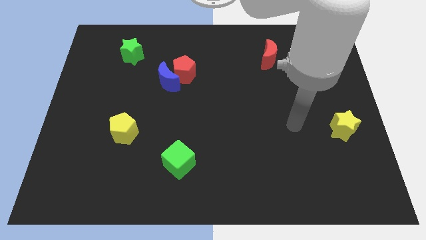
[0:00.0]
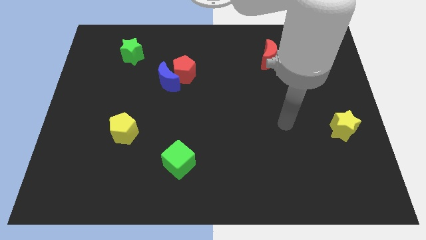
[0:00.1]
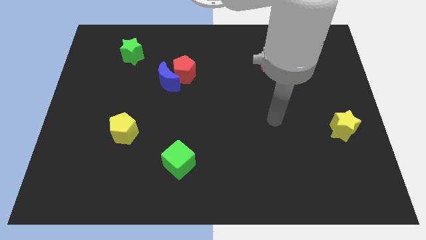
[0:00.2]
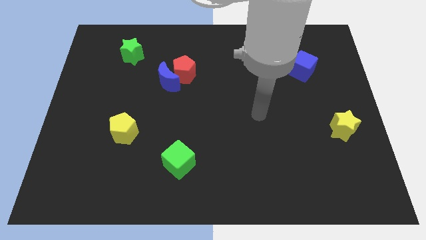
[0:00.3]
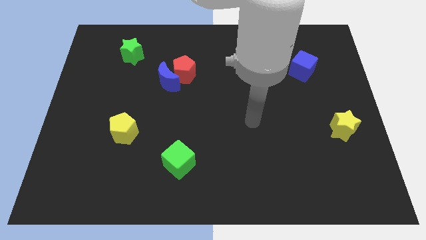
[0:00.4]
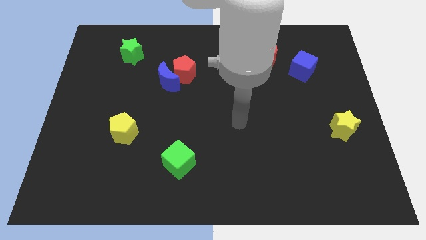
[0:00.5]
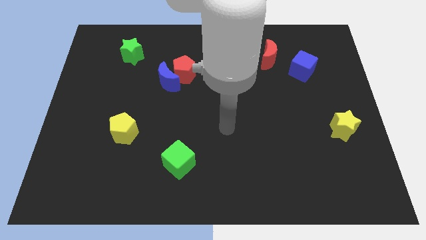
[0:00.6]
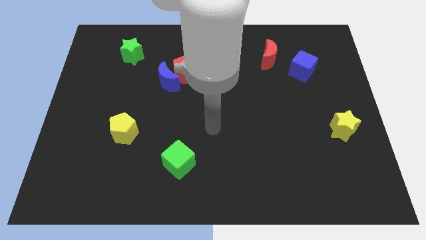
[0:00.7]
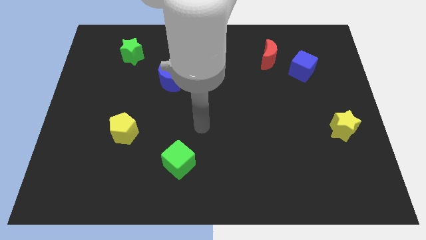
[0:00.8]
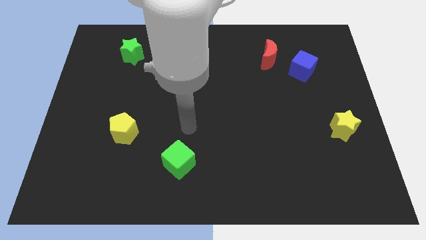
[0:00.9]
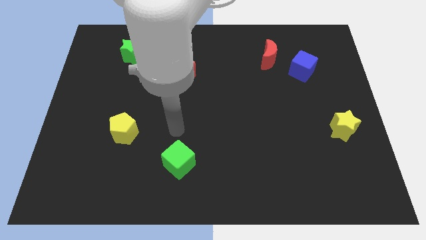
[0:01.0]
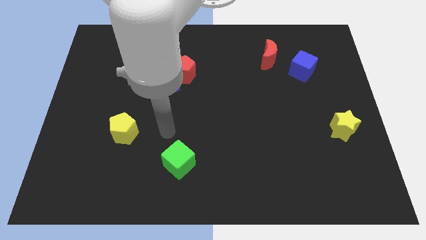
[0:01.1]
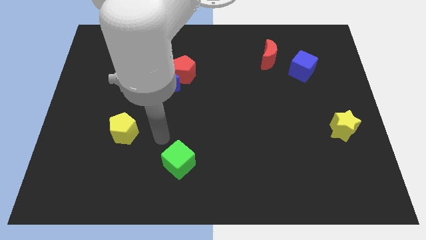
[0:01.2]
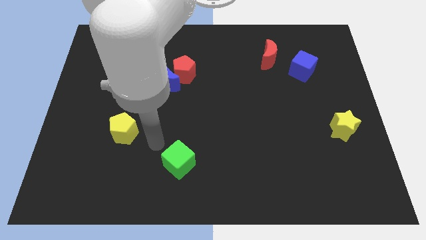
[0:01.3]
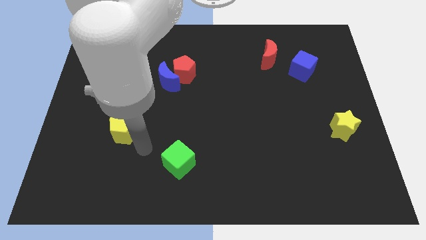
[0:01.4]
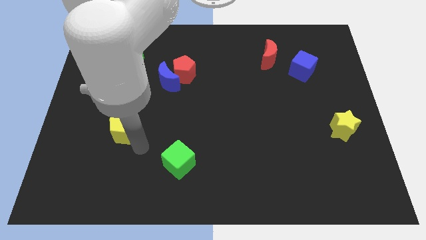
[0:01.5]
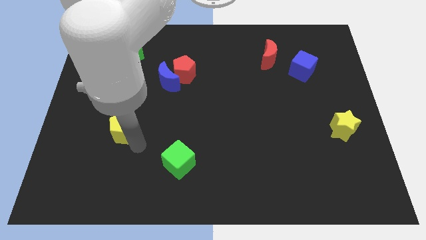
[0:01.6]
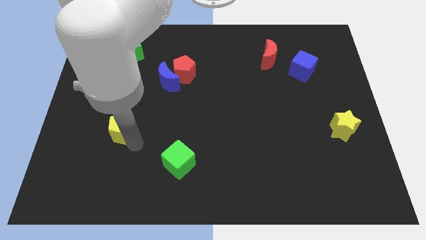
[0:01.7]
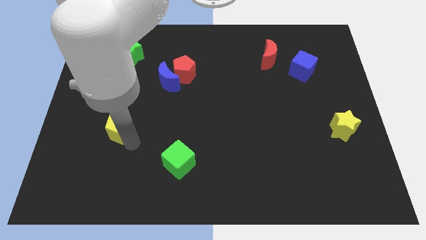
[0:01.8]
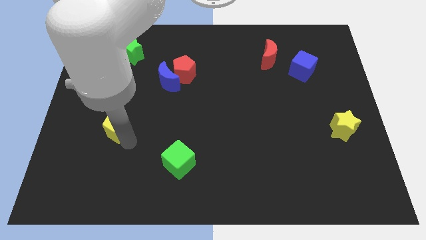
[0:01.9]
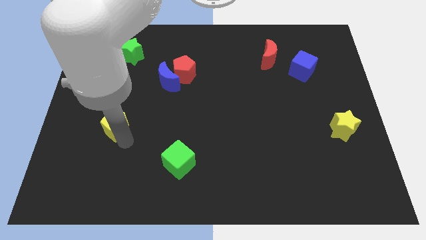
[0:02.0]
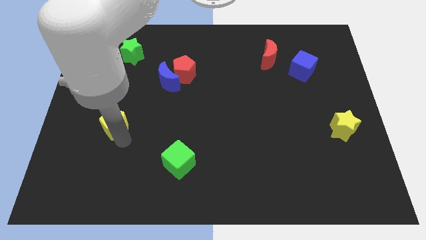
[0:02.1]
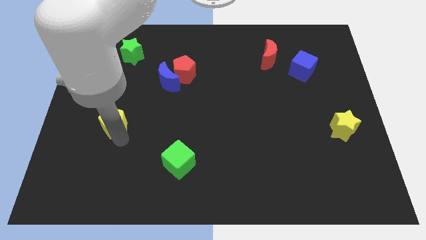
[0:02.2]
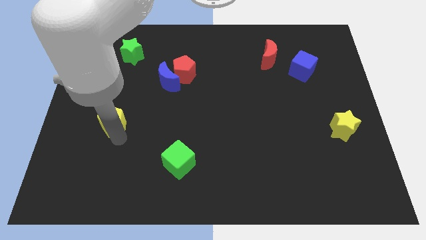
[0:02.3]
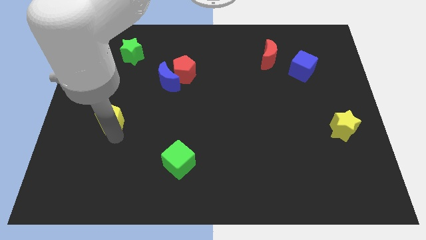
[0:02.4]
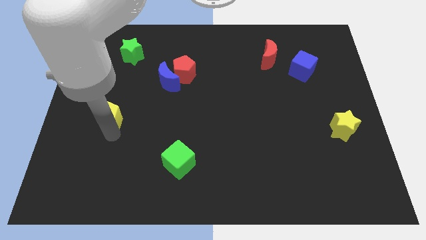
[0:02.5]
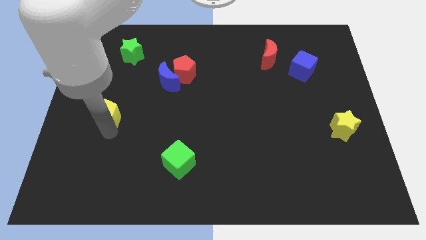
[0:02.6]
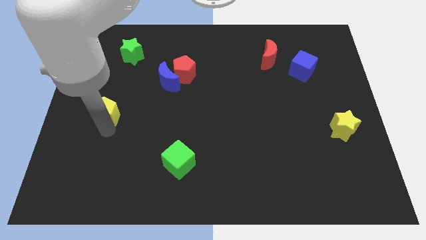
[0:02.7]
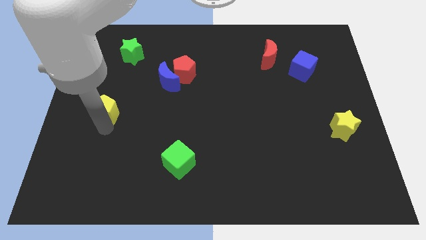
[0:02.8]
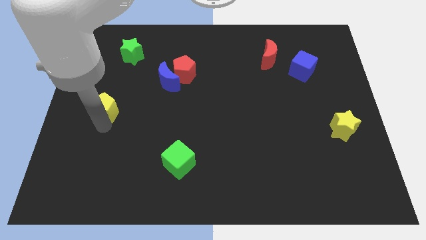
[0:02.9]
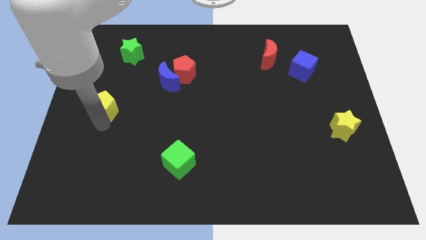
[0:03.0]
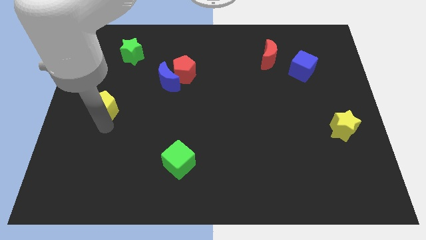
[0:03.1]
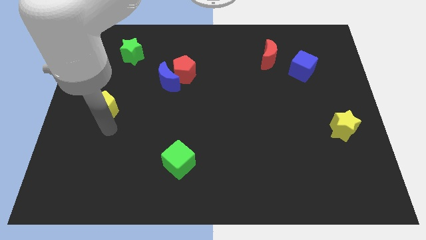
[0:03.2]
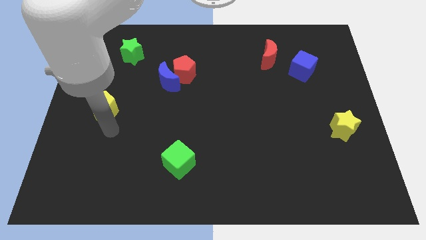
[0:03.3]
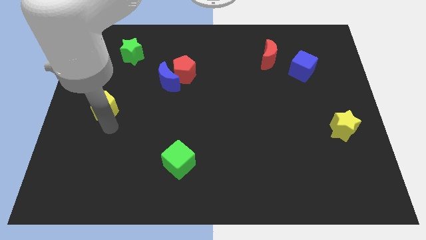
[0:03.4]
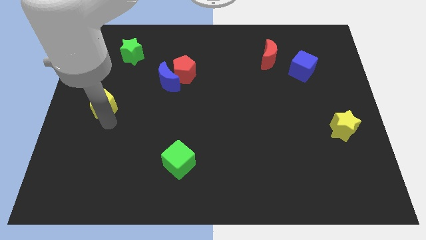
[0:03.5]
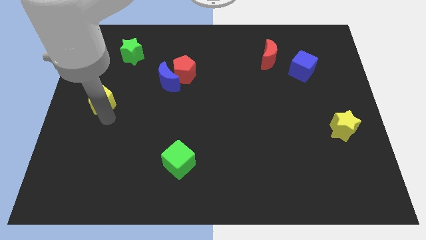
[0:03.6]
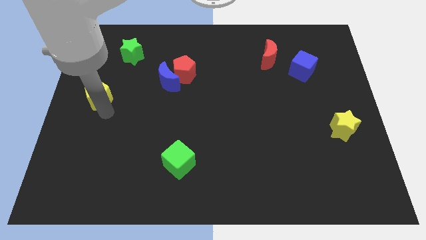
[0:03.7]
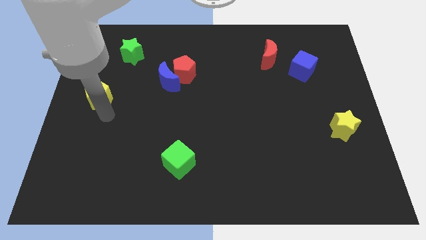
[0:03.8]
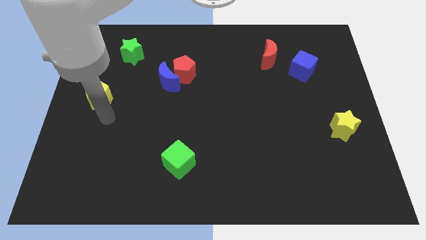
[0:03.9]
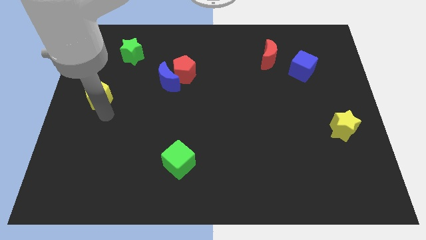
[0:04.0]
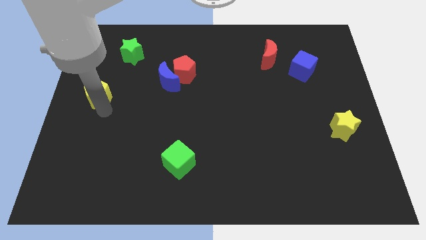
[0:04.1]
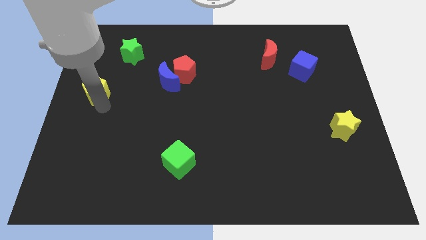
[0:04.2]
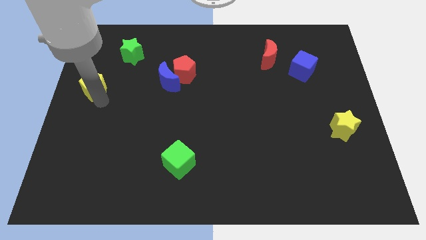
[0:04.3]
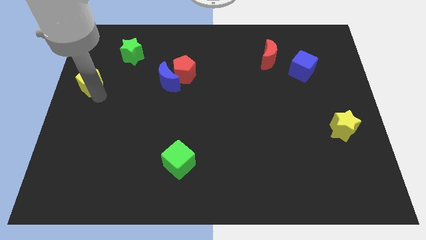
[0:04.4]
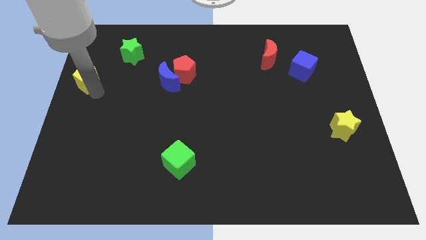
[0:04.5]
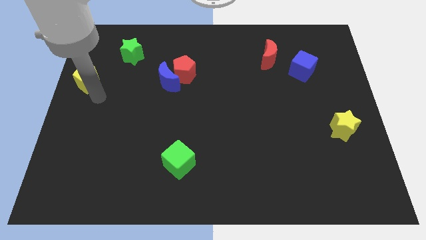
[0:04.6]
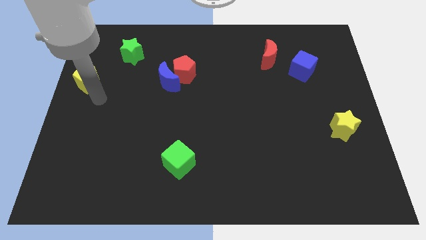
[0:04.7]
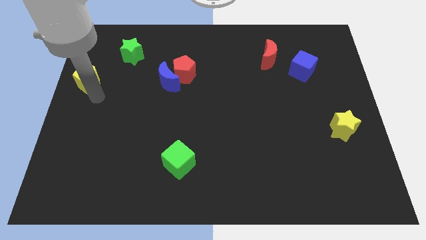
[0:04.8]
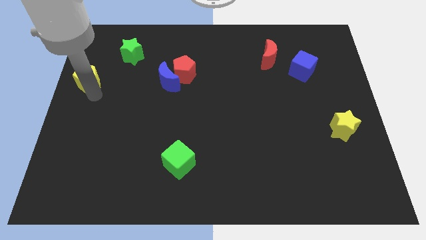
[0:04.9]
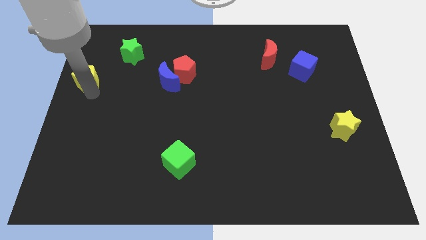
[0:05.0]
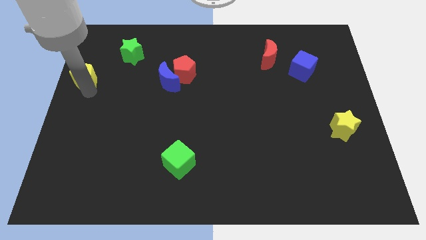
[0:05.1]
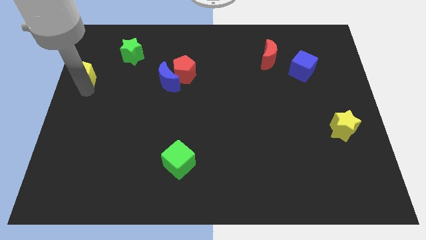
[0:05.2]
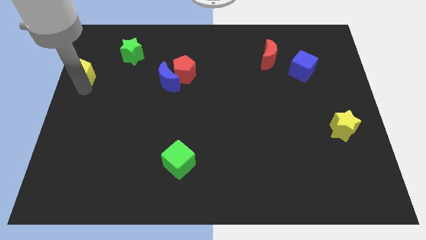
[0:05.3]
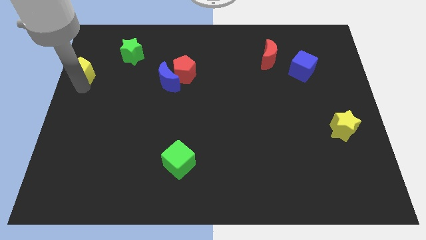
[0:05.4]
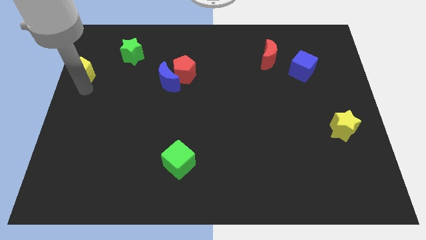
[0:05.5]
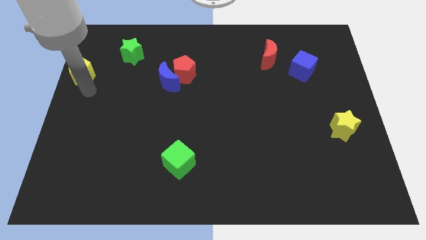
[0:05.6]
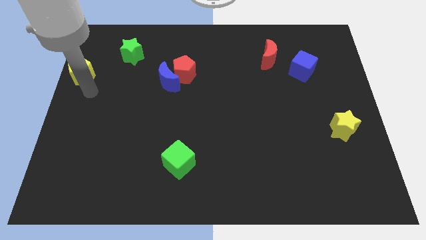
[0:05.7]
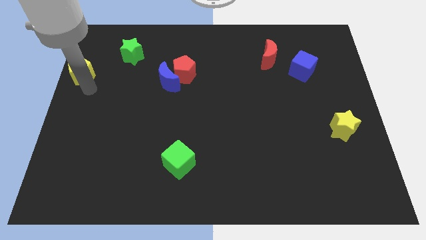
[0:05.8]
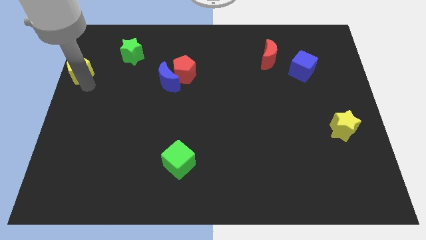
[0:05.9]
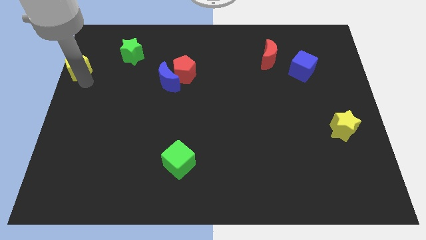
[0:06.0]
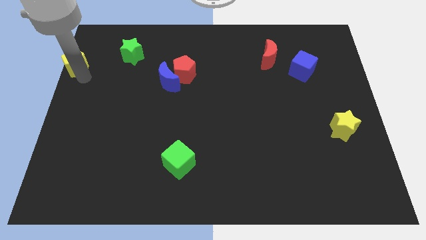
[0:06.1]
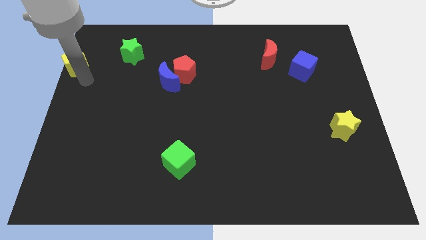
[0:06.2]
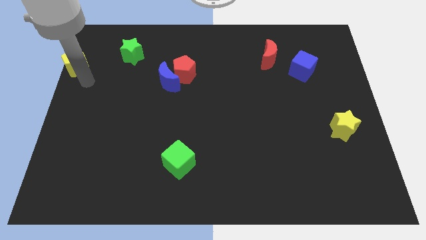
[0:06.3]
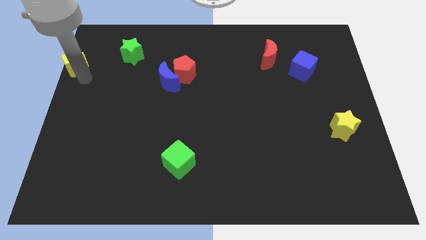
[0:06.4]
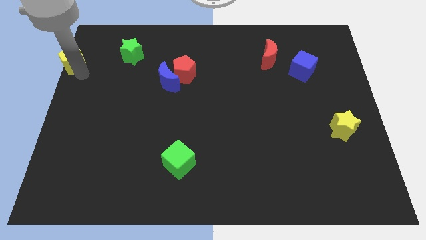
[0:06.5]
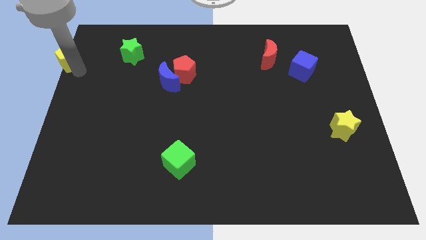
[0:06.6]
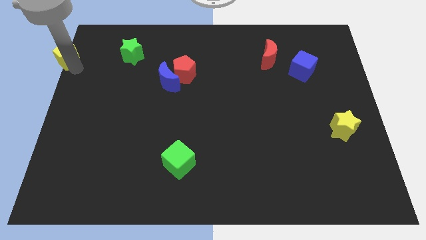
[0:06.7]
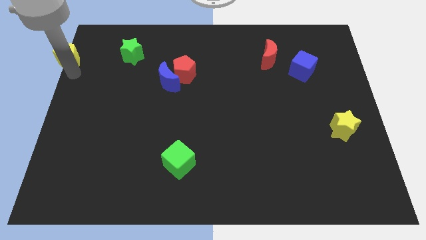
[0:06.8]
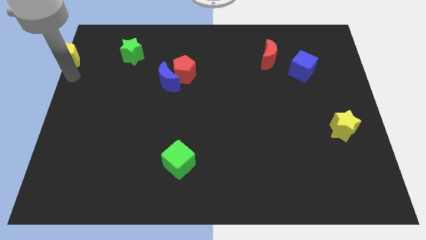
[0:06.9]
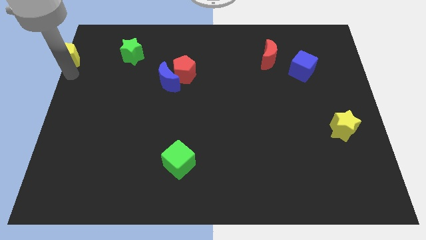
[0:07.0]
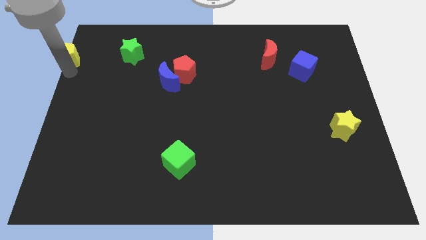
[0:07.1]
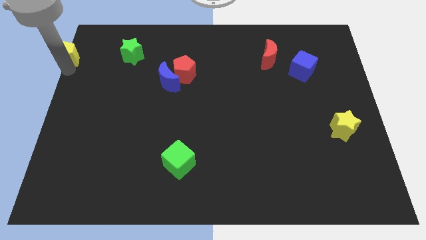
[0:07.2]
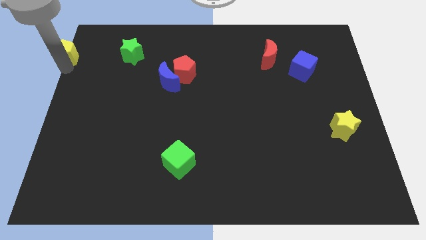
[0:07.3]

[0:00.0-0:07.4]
put the yellow pentagon to the top left corner
